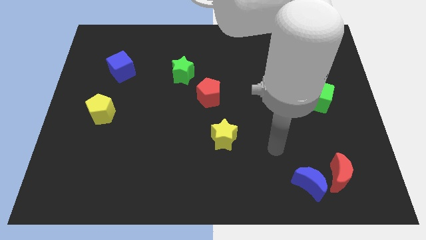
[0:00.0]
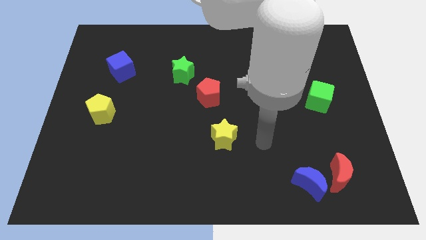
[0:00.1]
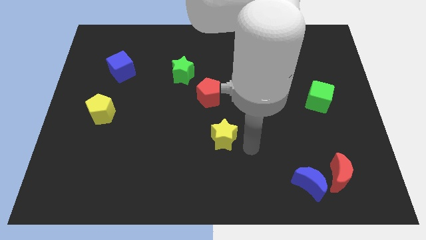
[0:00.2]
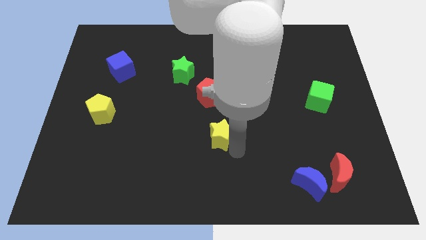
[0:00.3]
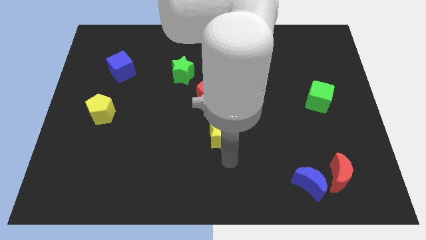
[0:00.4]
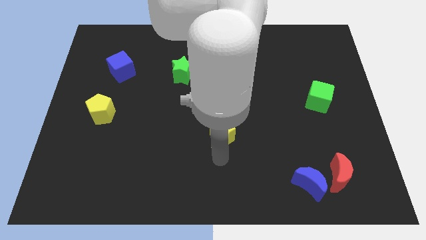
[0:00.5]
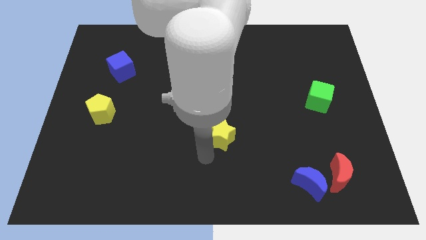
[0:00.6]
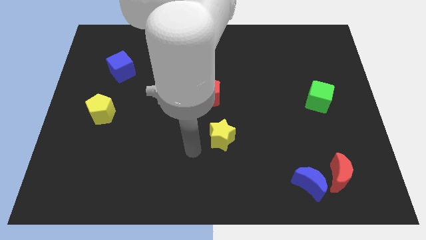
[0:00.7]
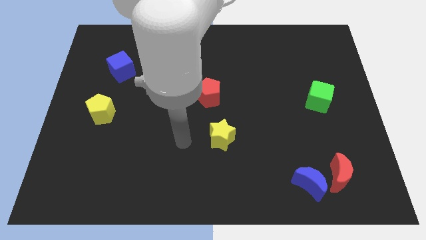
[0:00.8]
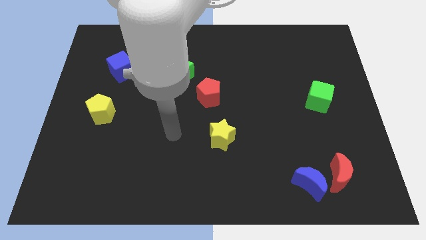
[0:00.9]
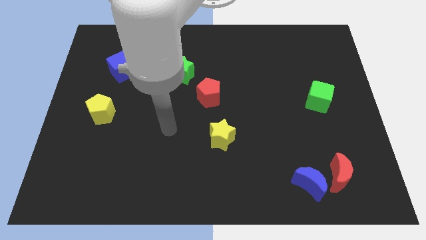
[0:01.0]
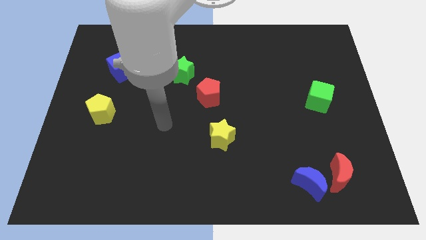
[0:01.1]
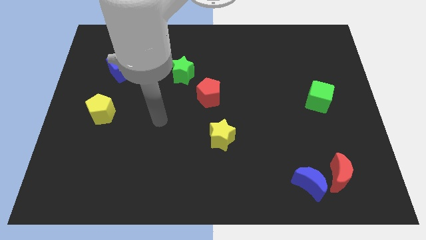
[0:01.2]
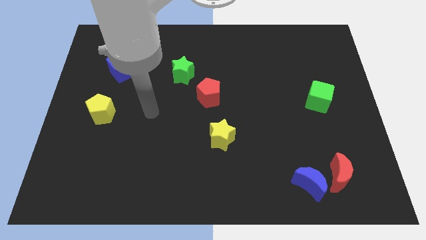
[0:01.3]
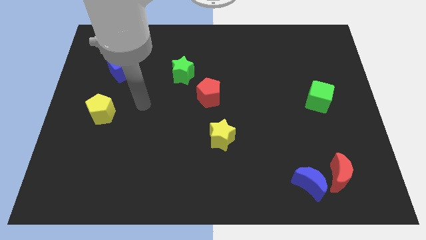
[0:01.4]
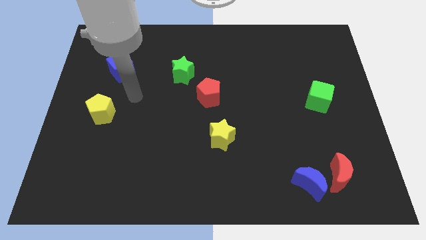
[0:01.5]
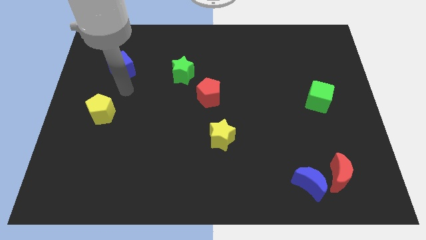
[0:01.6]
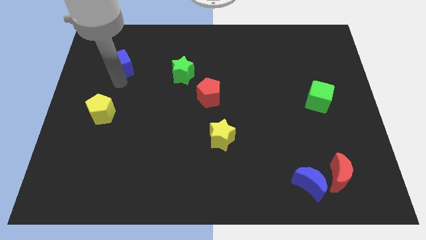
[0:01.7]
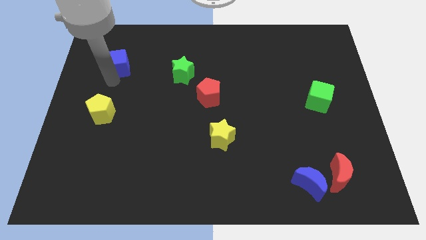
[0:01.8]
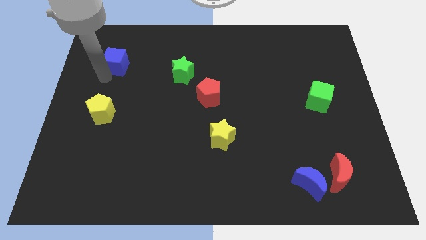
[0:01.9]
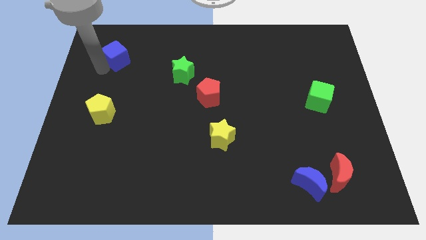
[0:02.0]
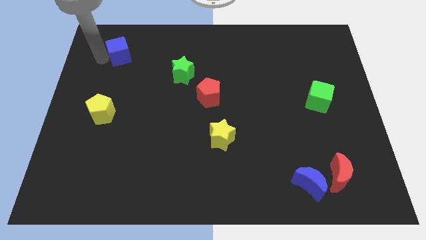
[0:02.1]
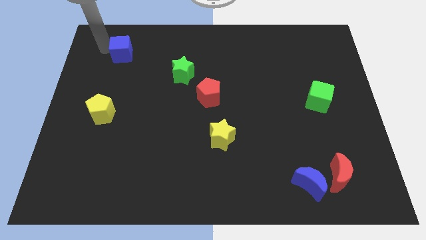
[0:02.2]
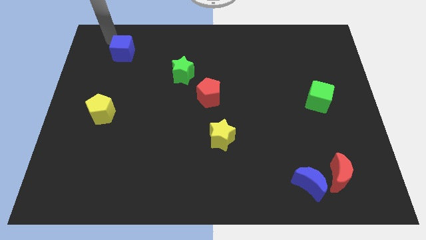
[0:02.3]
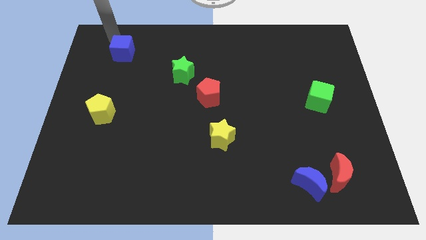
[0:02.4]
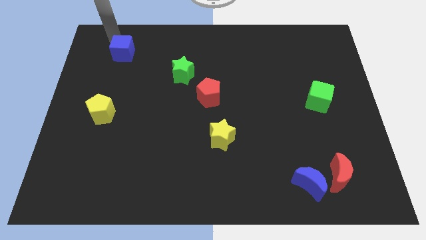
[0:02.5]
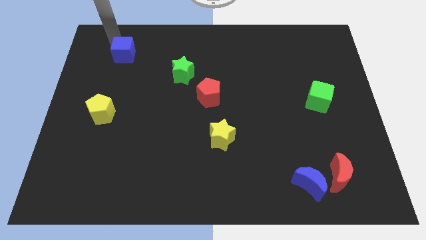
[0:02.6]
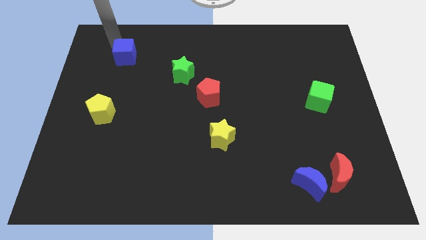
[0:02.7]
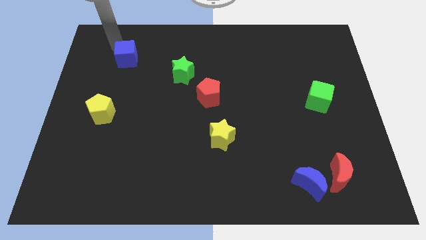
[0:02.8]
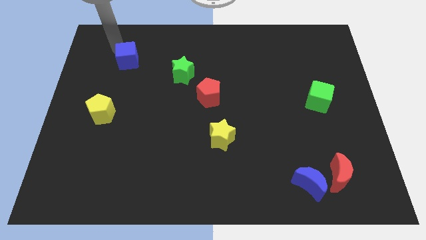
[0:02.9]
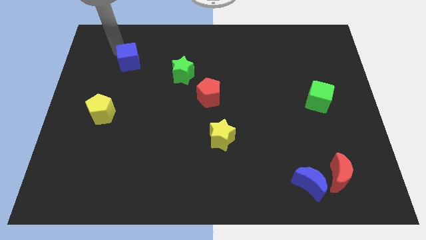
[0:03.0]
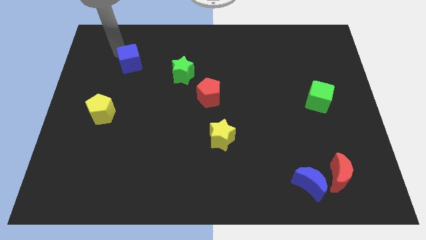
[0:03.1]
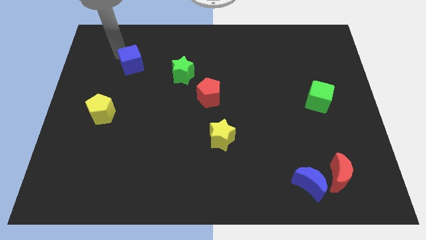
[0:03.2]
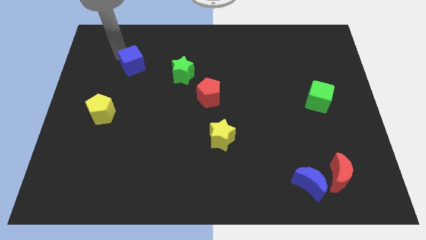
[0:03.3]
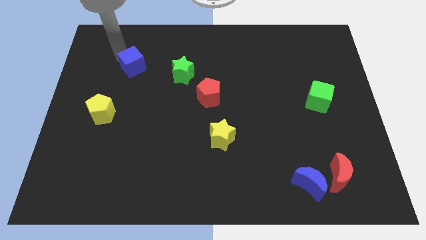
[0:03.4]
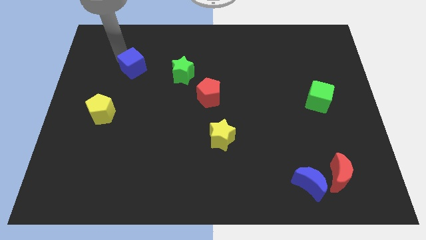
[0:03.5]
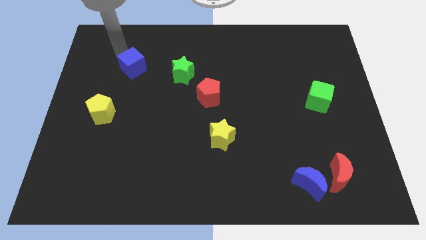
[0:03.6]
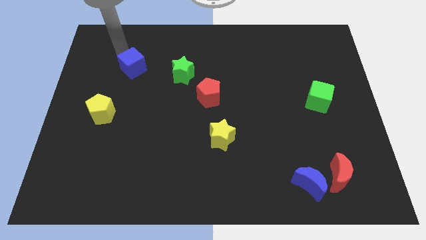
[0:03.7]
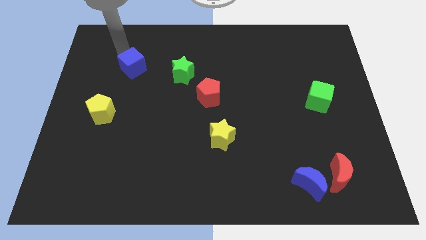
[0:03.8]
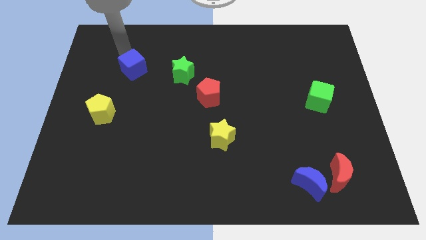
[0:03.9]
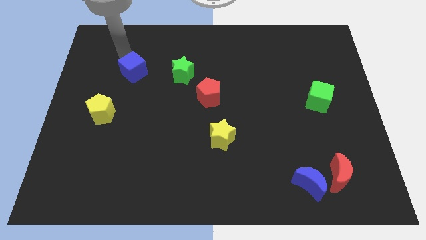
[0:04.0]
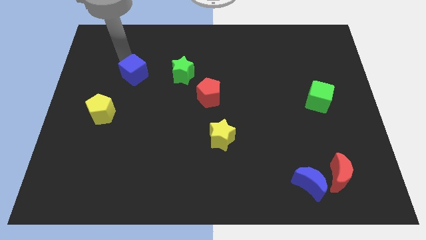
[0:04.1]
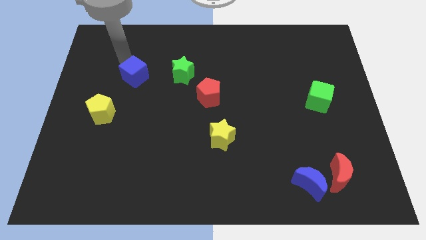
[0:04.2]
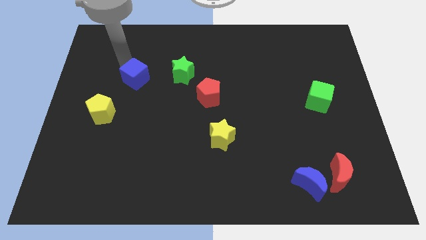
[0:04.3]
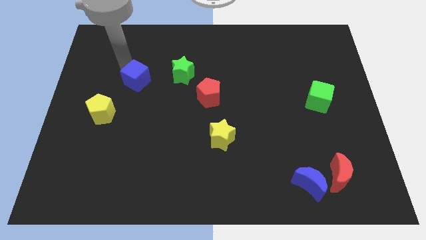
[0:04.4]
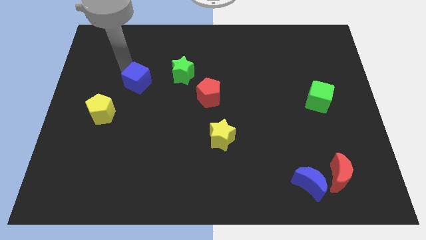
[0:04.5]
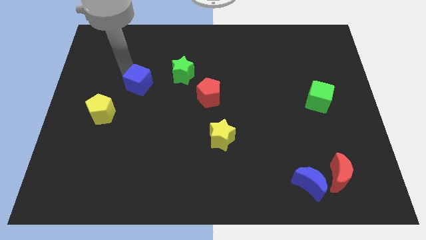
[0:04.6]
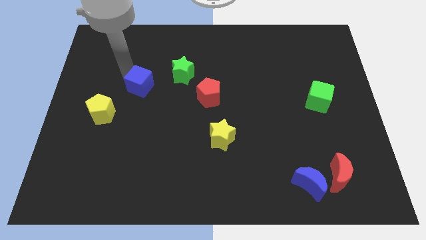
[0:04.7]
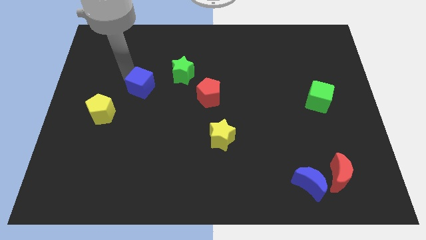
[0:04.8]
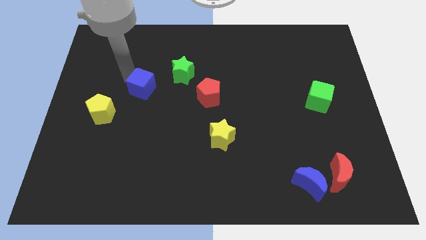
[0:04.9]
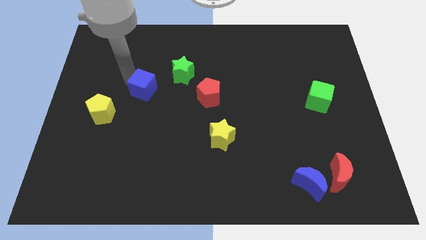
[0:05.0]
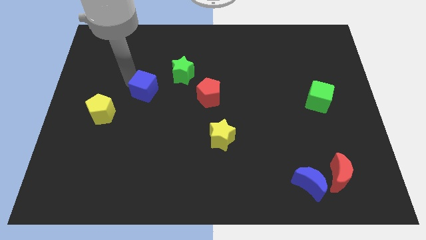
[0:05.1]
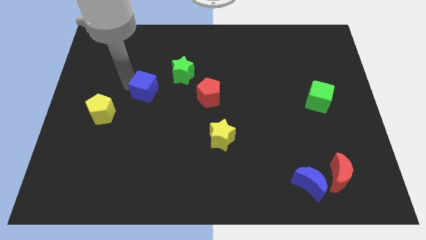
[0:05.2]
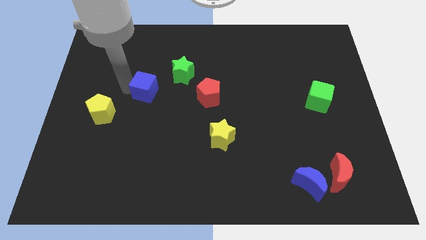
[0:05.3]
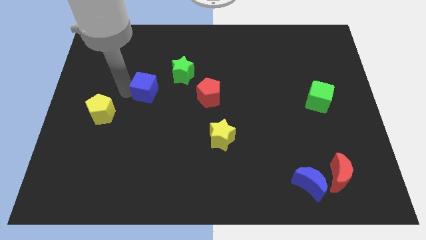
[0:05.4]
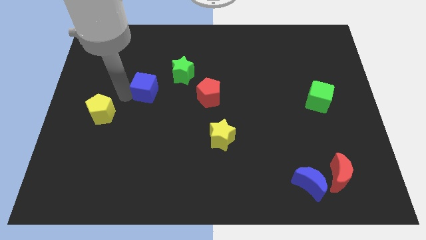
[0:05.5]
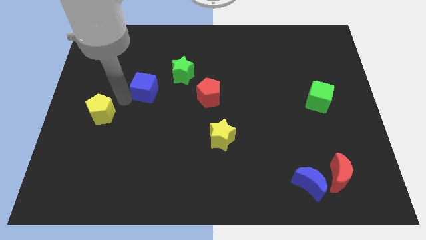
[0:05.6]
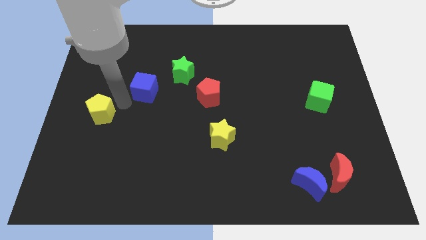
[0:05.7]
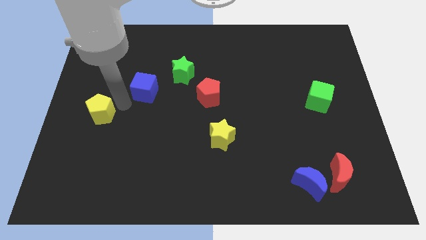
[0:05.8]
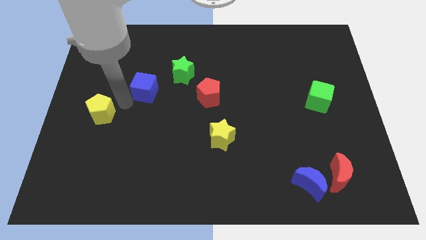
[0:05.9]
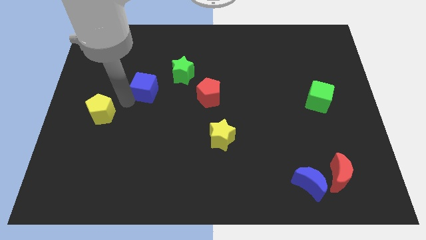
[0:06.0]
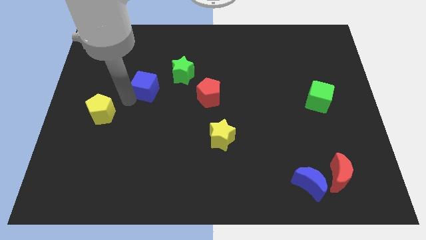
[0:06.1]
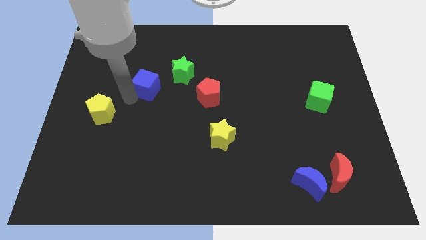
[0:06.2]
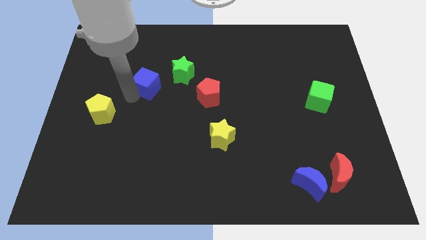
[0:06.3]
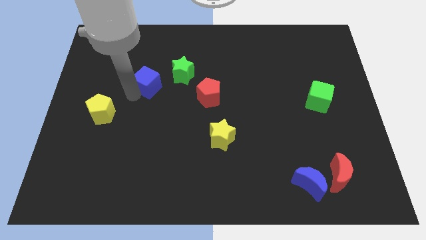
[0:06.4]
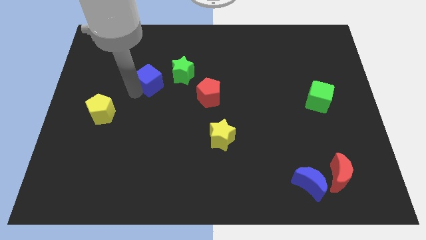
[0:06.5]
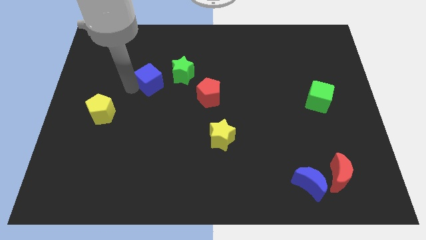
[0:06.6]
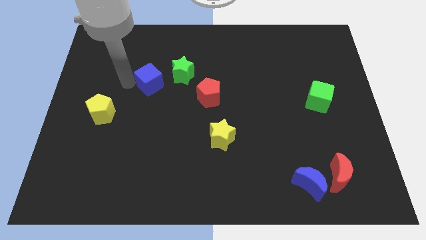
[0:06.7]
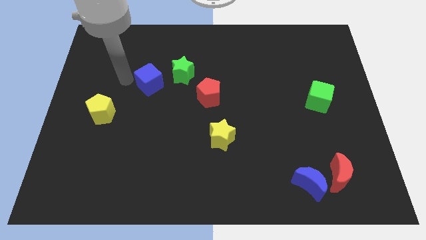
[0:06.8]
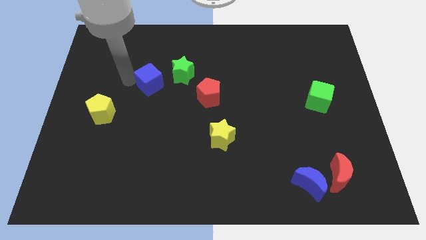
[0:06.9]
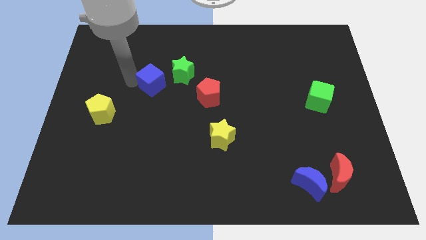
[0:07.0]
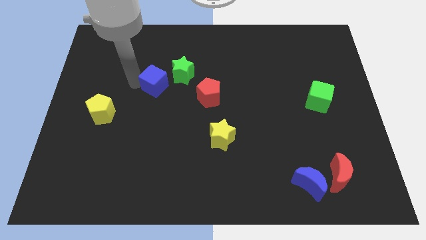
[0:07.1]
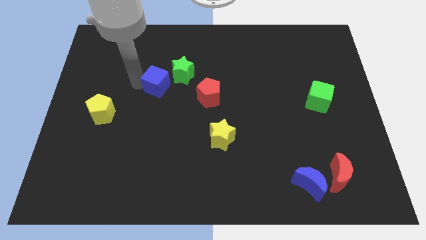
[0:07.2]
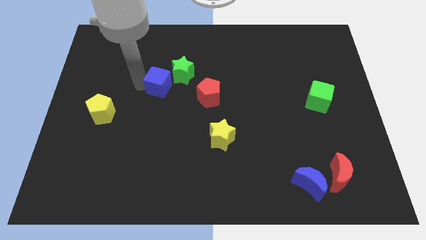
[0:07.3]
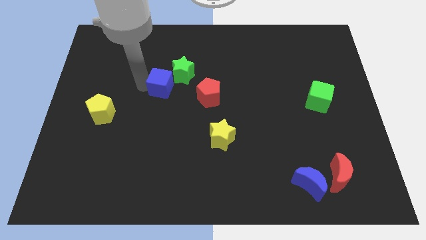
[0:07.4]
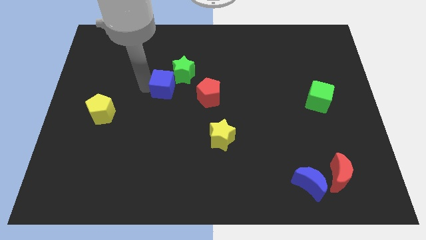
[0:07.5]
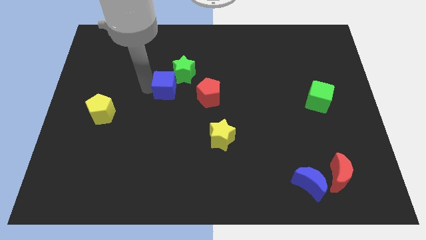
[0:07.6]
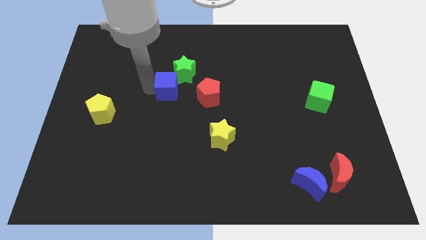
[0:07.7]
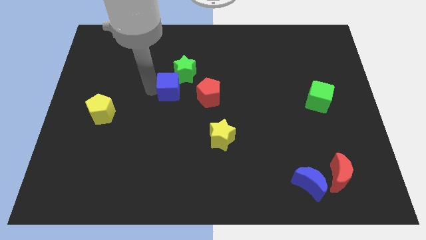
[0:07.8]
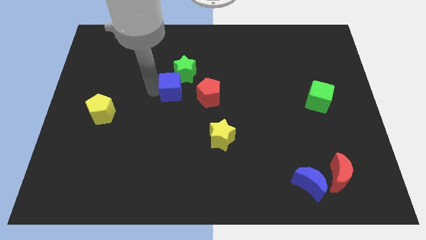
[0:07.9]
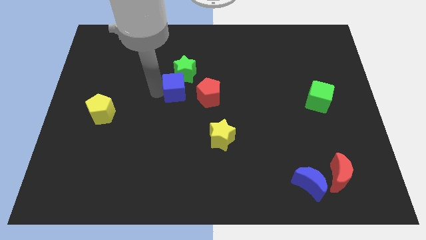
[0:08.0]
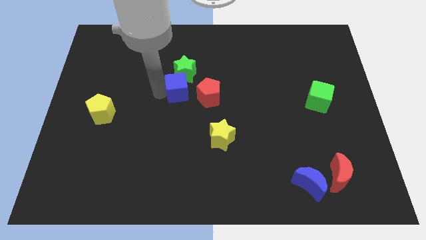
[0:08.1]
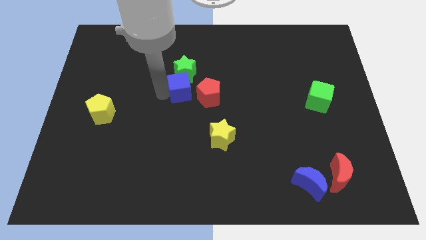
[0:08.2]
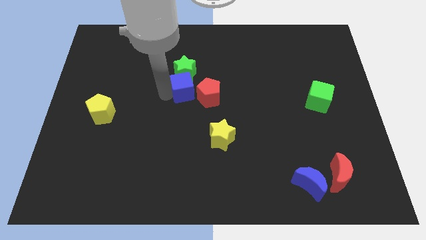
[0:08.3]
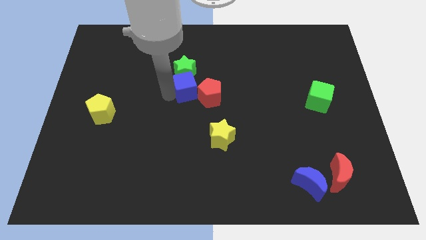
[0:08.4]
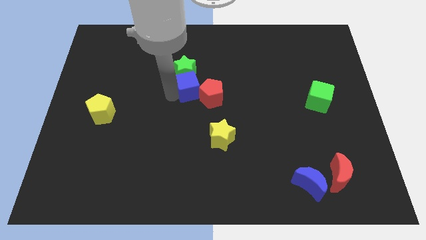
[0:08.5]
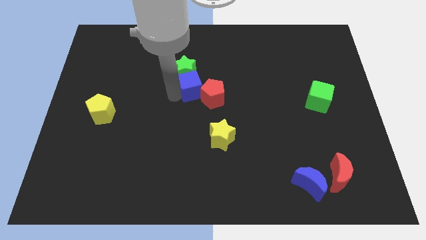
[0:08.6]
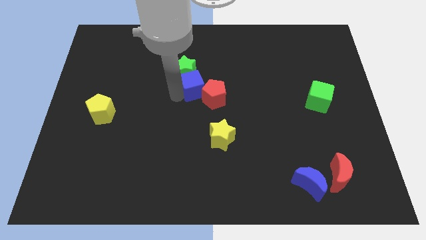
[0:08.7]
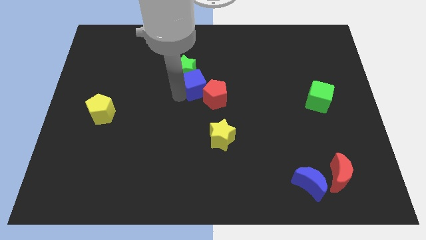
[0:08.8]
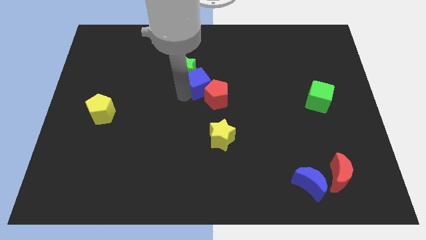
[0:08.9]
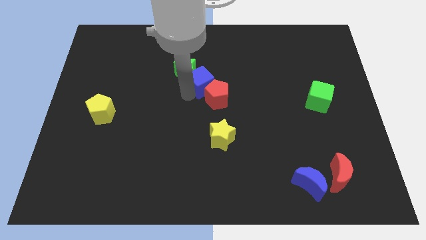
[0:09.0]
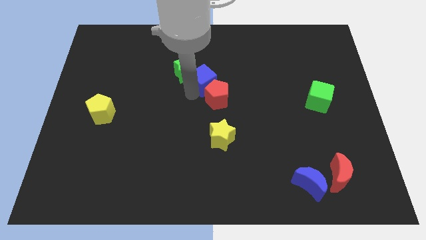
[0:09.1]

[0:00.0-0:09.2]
slide the blue cube to the right
